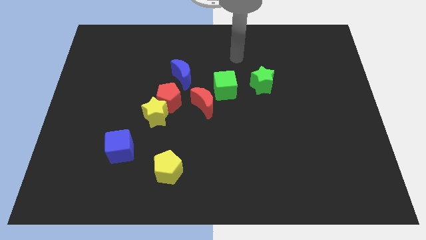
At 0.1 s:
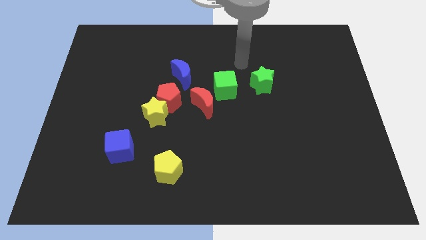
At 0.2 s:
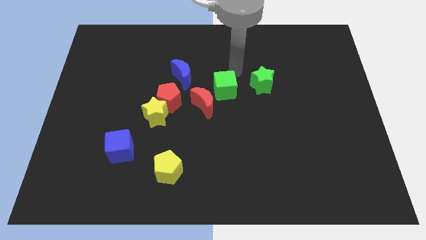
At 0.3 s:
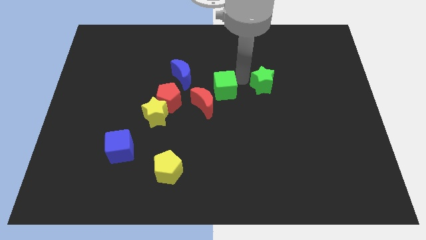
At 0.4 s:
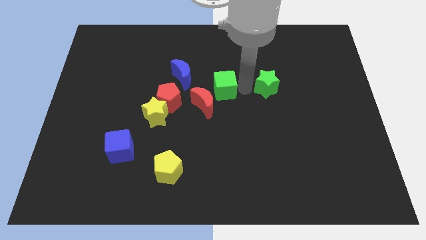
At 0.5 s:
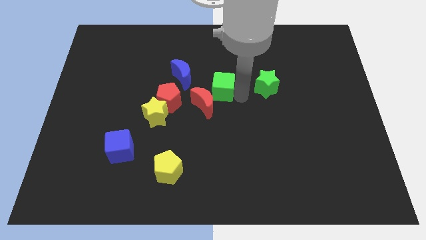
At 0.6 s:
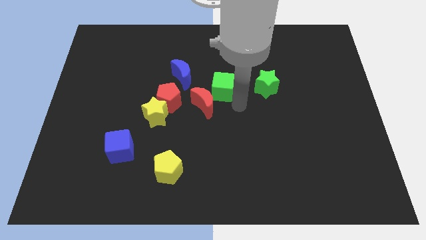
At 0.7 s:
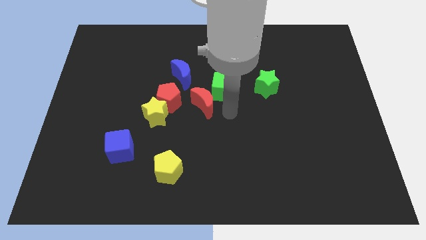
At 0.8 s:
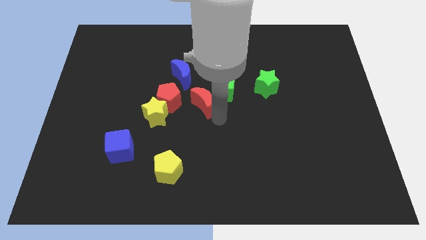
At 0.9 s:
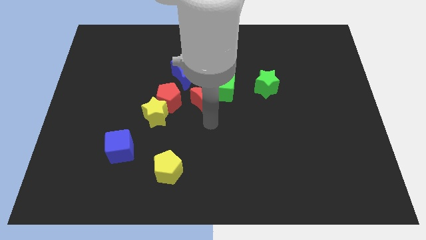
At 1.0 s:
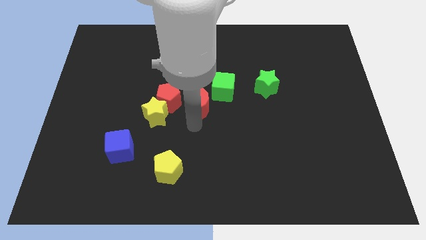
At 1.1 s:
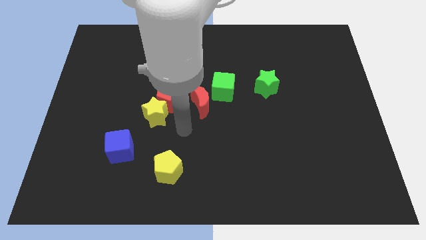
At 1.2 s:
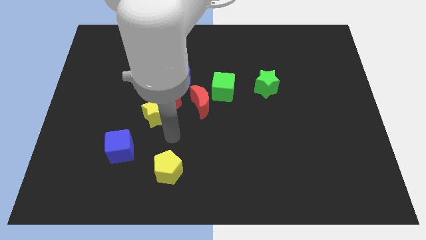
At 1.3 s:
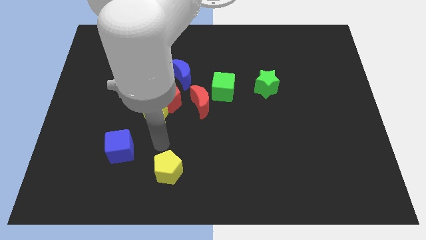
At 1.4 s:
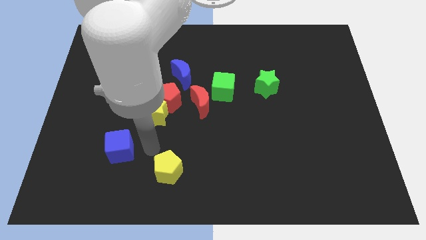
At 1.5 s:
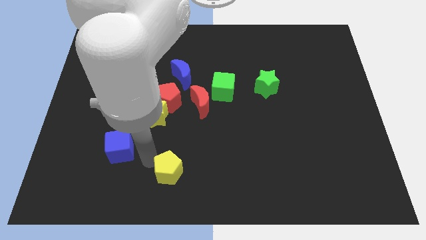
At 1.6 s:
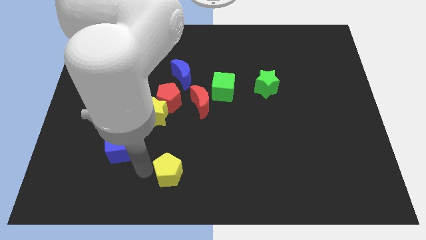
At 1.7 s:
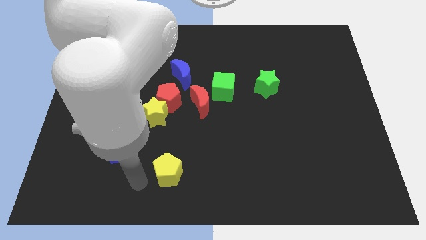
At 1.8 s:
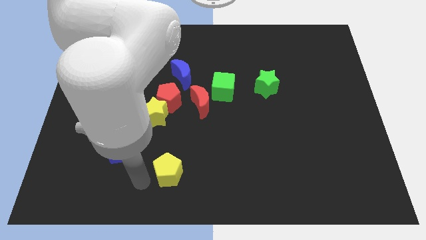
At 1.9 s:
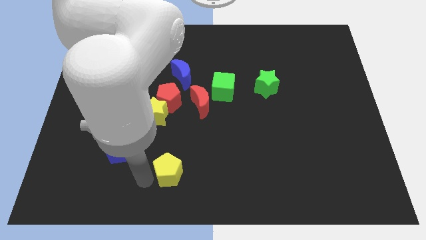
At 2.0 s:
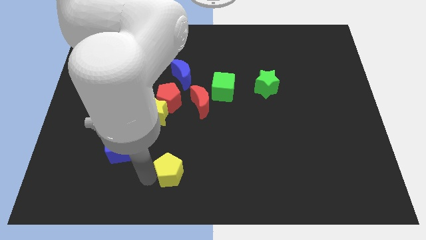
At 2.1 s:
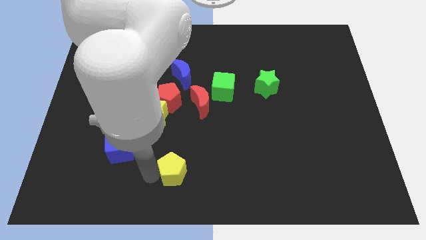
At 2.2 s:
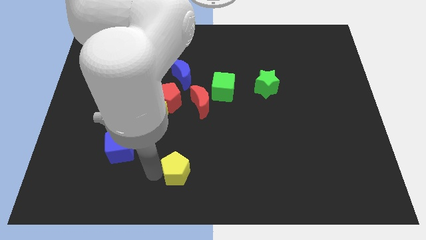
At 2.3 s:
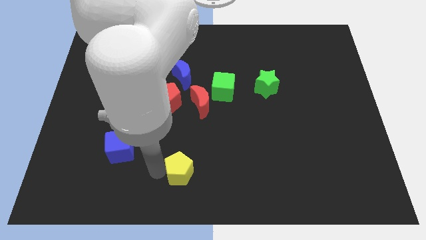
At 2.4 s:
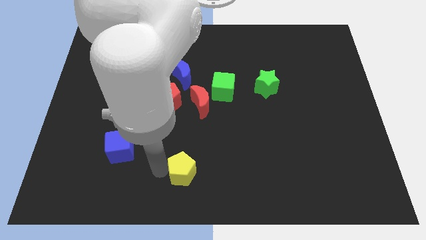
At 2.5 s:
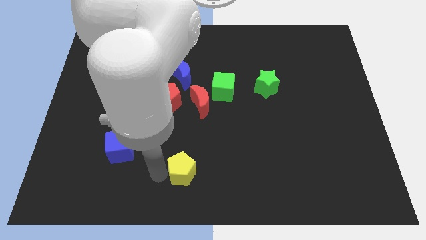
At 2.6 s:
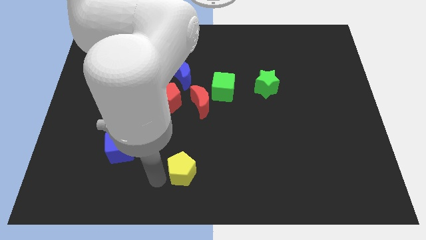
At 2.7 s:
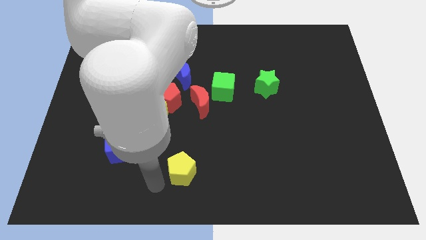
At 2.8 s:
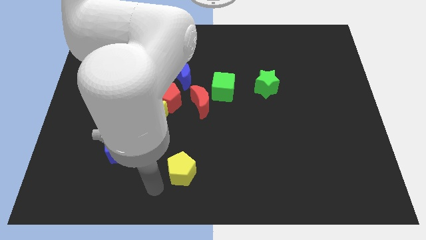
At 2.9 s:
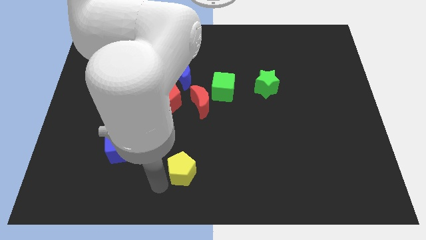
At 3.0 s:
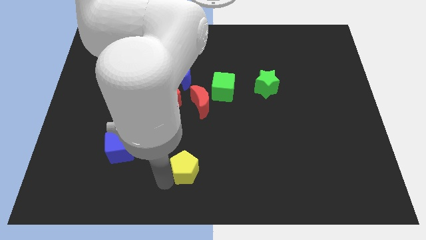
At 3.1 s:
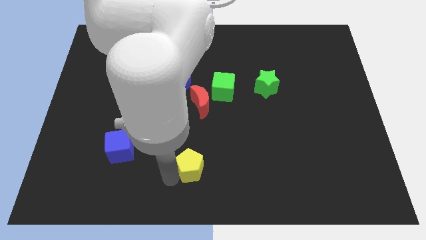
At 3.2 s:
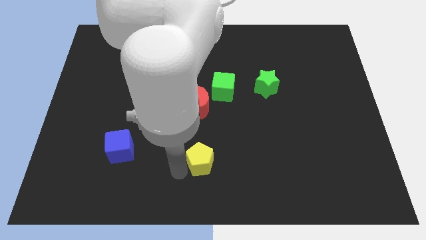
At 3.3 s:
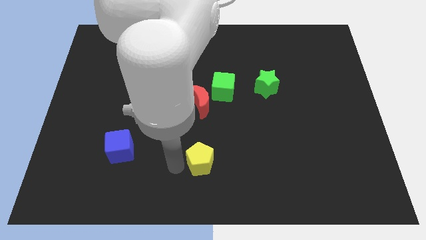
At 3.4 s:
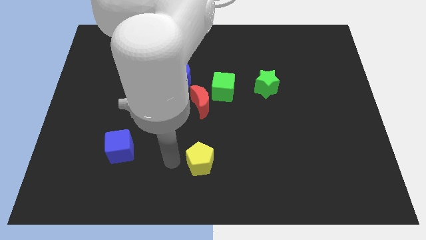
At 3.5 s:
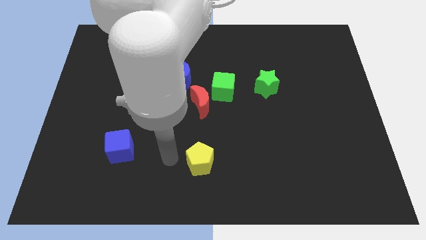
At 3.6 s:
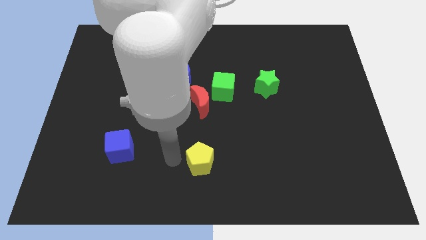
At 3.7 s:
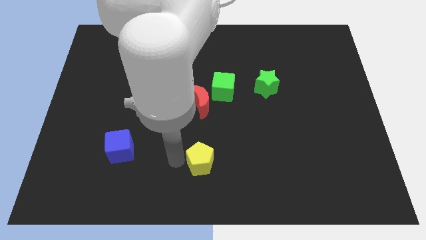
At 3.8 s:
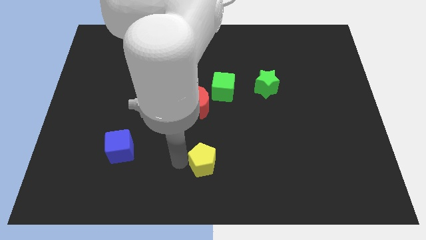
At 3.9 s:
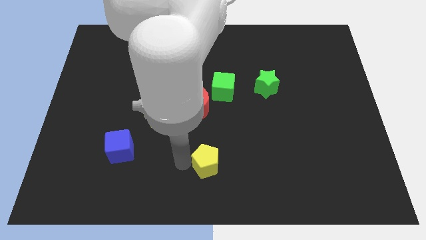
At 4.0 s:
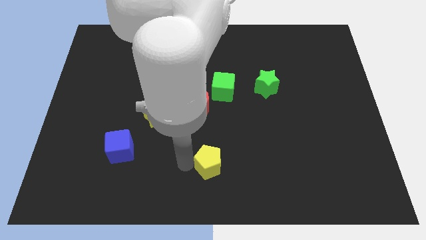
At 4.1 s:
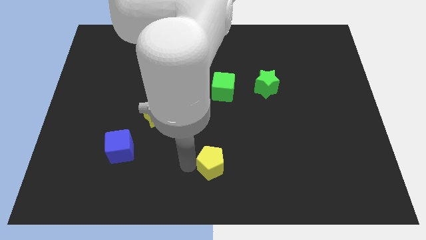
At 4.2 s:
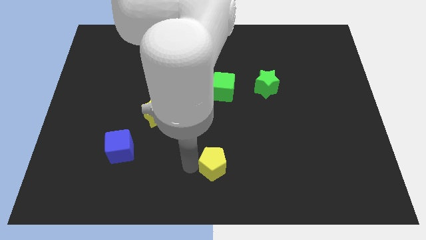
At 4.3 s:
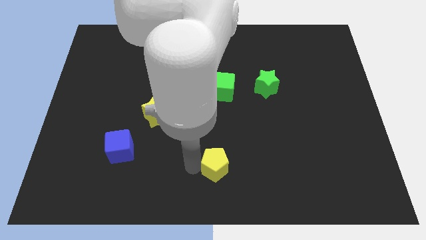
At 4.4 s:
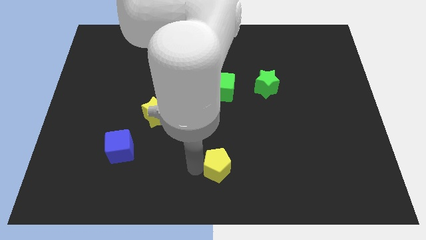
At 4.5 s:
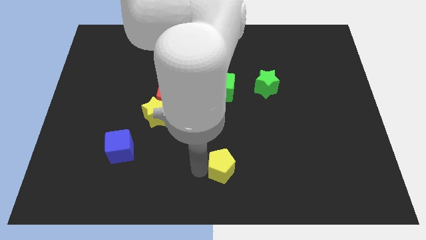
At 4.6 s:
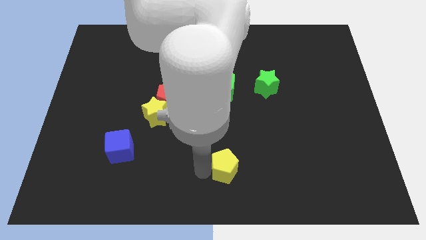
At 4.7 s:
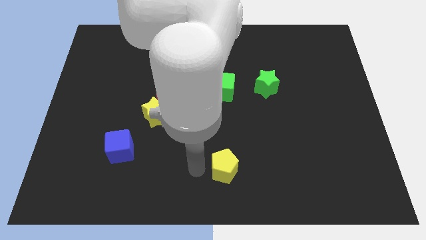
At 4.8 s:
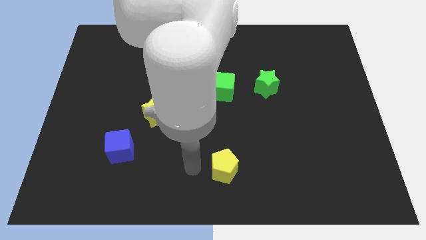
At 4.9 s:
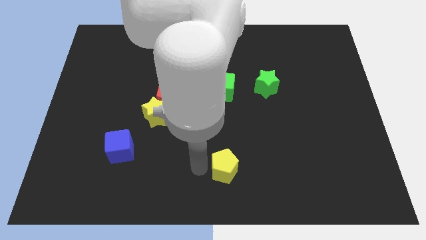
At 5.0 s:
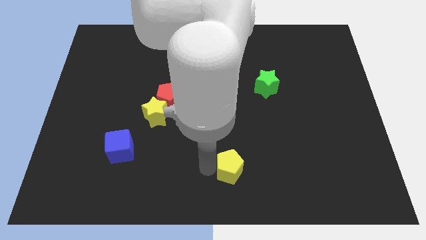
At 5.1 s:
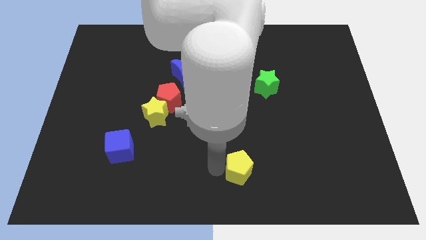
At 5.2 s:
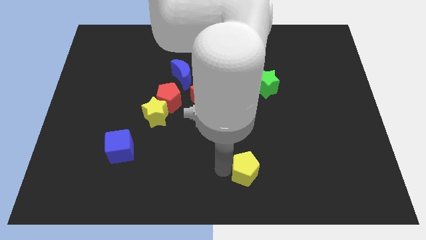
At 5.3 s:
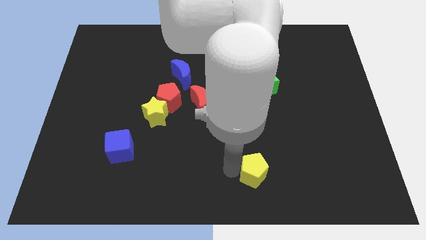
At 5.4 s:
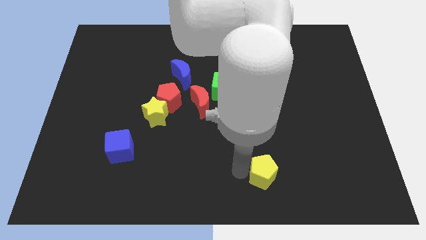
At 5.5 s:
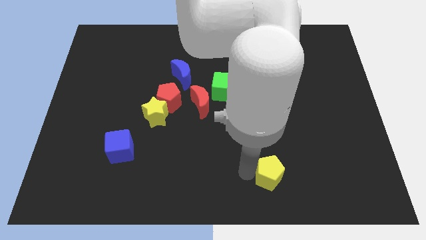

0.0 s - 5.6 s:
push the yellow pentagon to the right

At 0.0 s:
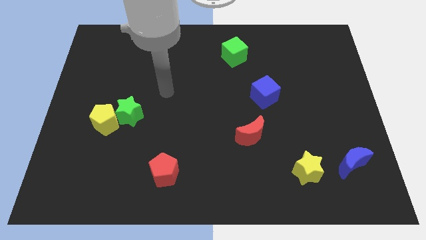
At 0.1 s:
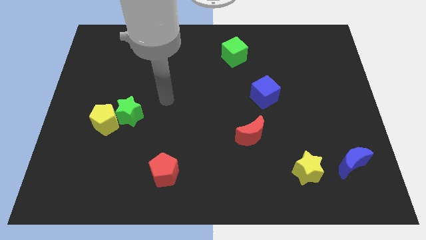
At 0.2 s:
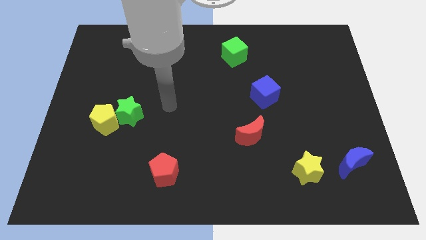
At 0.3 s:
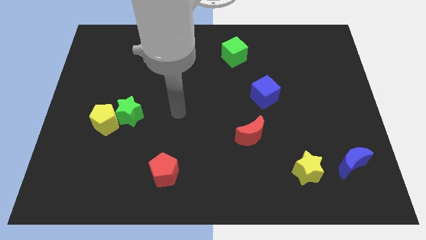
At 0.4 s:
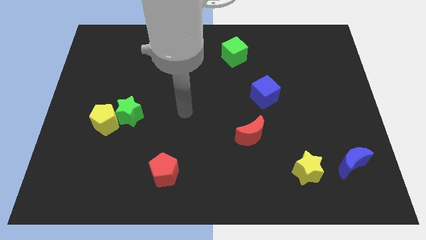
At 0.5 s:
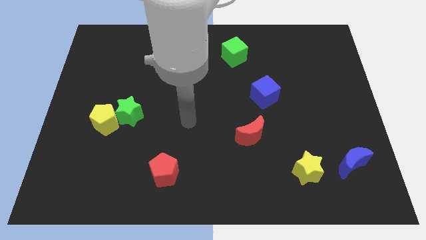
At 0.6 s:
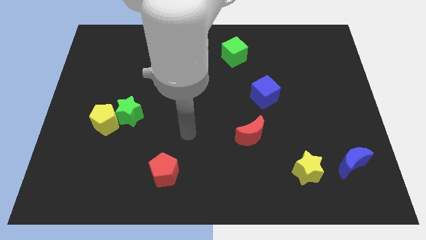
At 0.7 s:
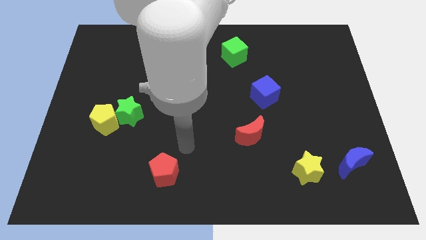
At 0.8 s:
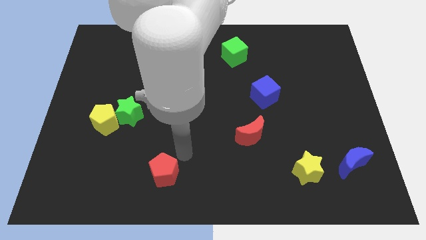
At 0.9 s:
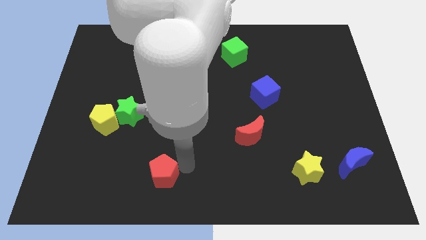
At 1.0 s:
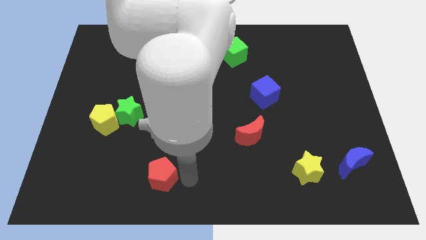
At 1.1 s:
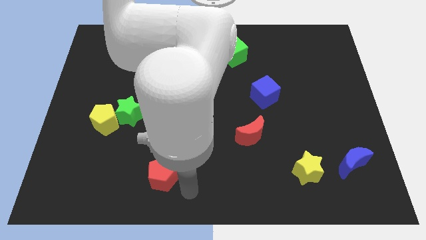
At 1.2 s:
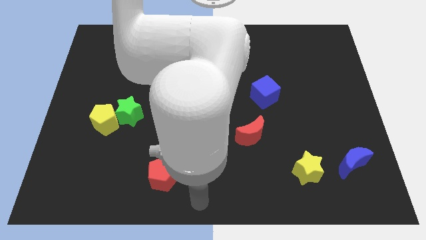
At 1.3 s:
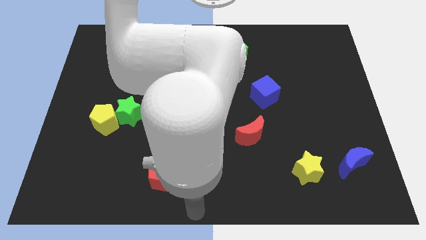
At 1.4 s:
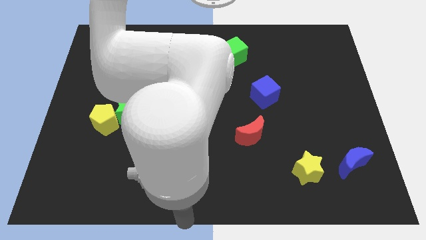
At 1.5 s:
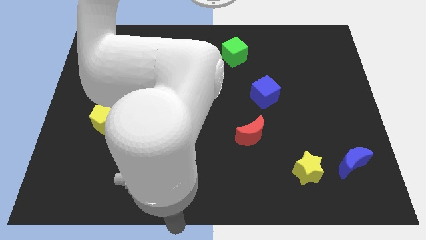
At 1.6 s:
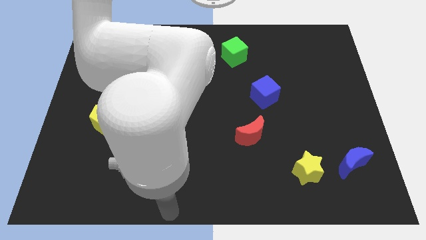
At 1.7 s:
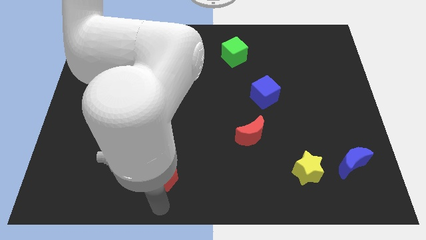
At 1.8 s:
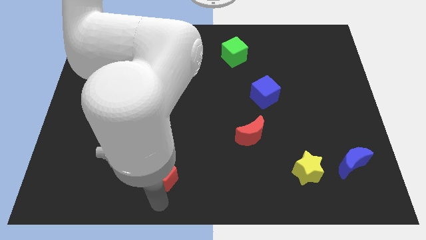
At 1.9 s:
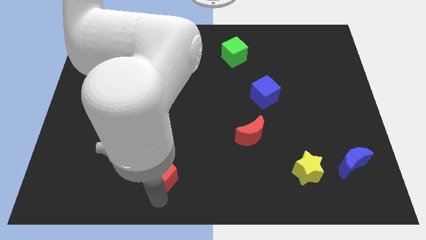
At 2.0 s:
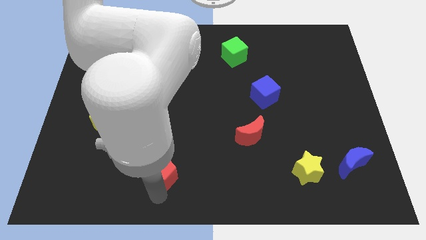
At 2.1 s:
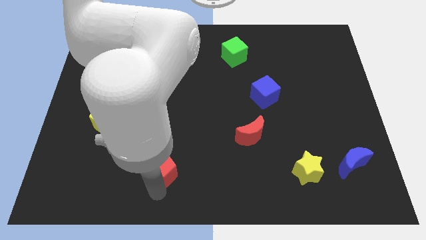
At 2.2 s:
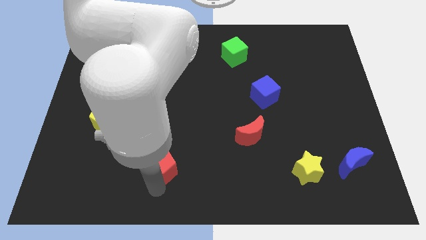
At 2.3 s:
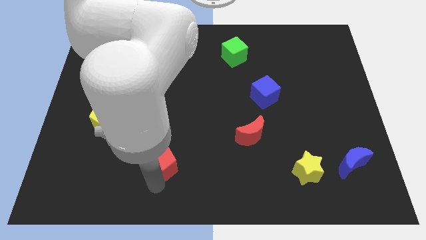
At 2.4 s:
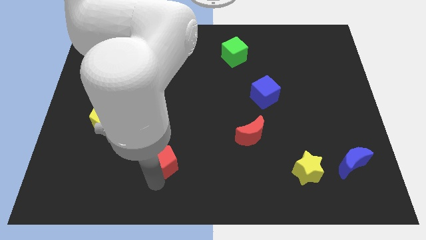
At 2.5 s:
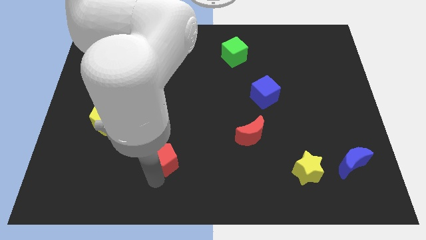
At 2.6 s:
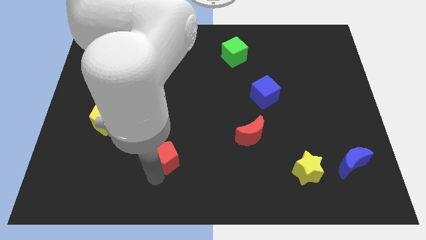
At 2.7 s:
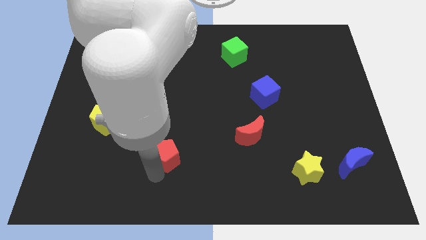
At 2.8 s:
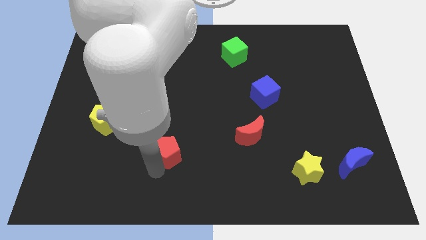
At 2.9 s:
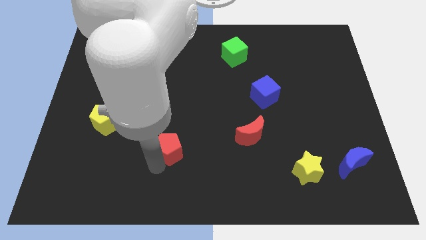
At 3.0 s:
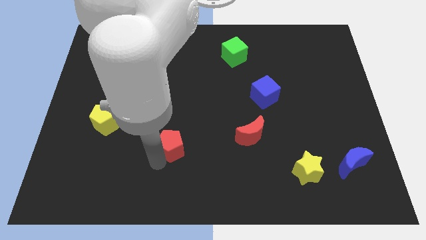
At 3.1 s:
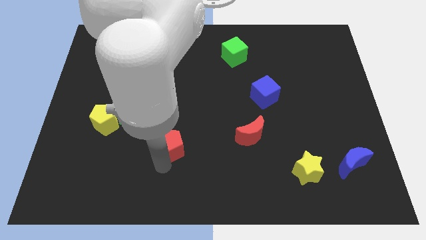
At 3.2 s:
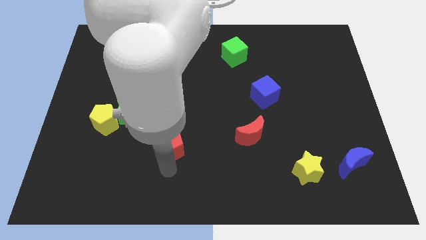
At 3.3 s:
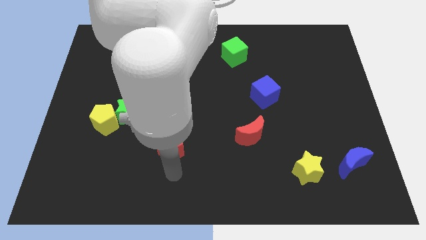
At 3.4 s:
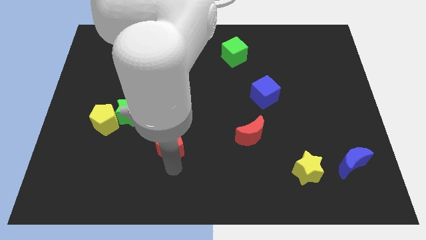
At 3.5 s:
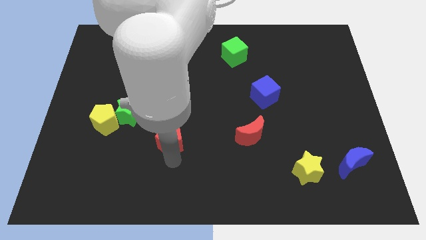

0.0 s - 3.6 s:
slightly push the red pentagon up
